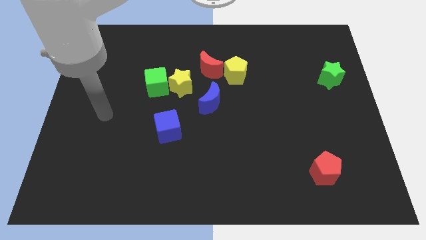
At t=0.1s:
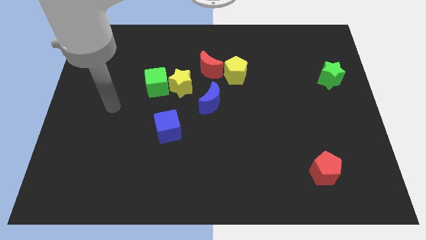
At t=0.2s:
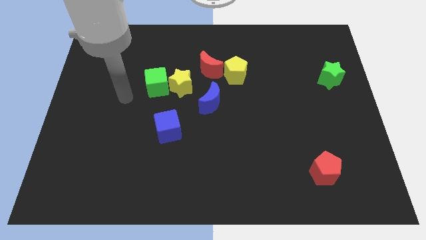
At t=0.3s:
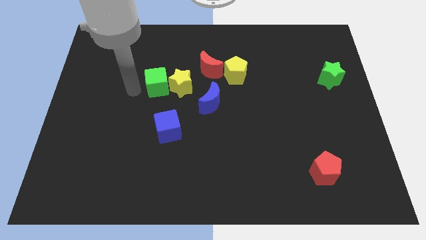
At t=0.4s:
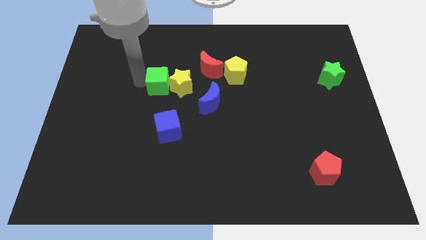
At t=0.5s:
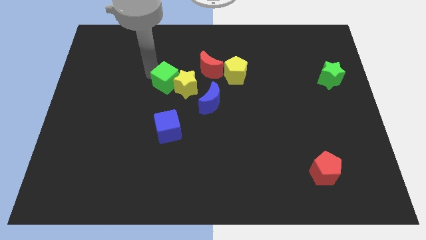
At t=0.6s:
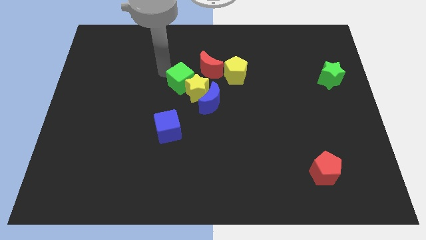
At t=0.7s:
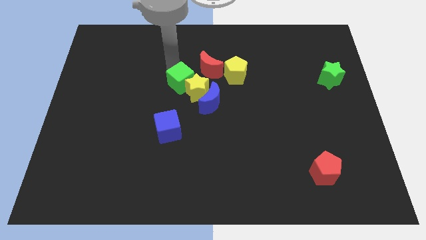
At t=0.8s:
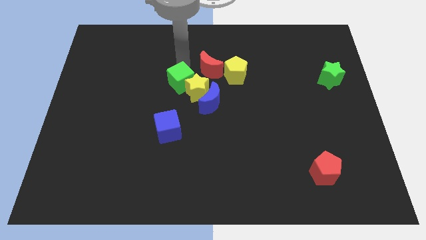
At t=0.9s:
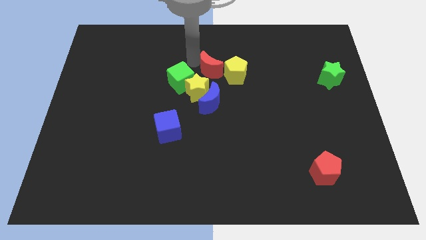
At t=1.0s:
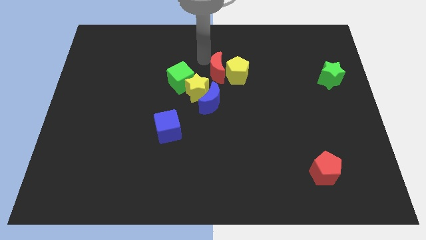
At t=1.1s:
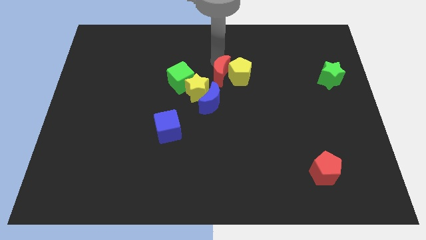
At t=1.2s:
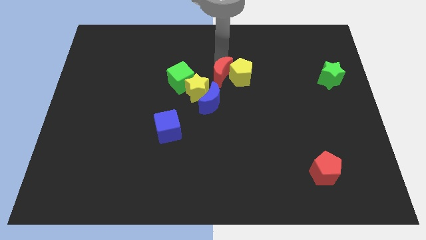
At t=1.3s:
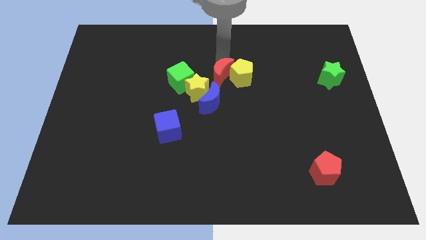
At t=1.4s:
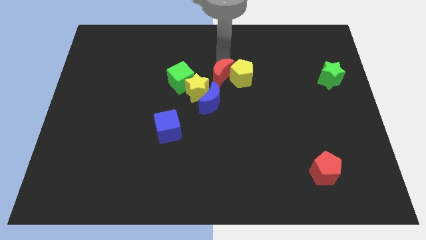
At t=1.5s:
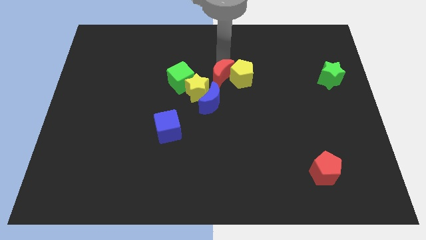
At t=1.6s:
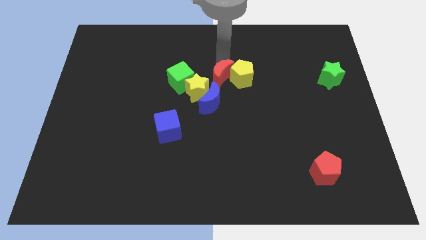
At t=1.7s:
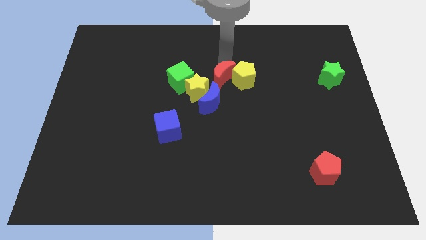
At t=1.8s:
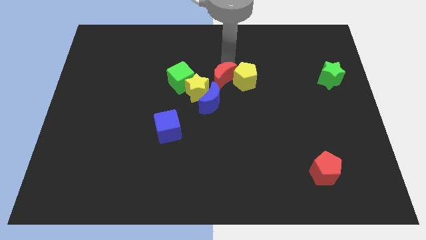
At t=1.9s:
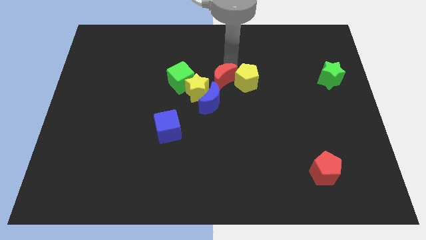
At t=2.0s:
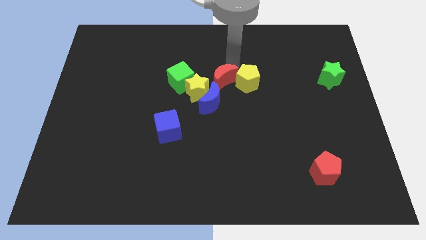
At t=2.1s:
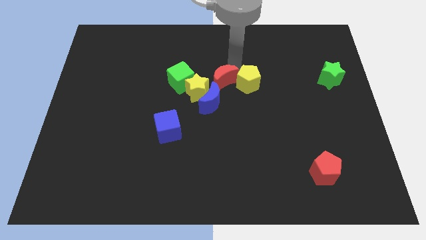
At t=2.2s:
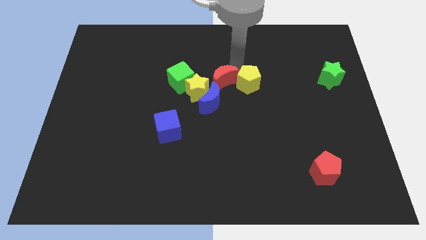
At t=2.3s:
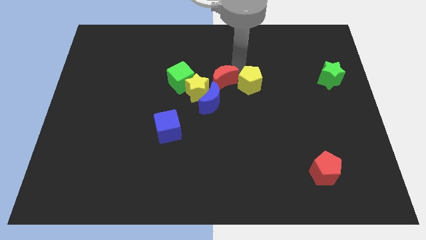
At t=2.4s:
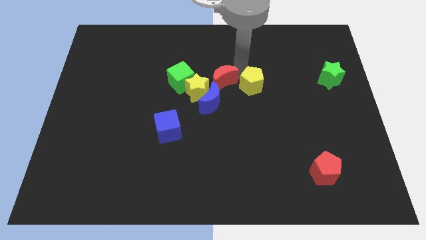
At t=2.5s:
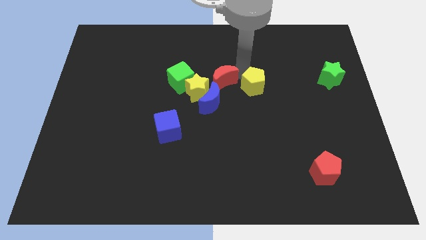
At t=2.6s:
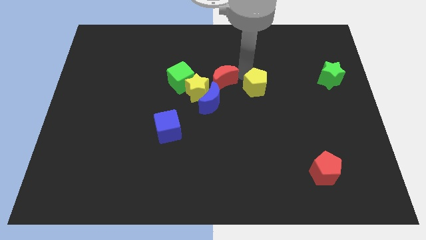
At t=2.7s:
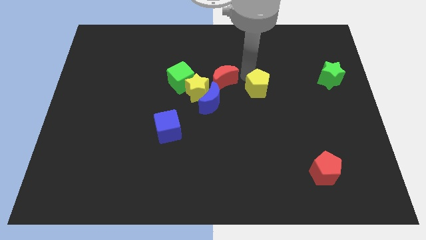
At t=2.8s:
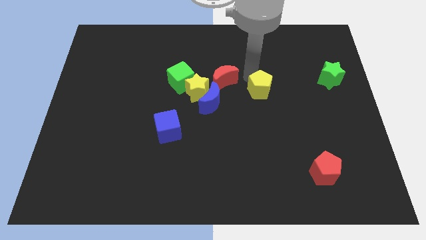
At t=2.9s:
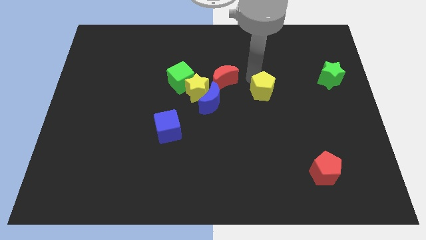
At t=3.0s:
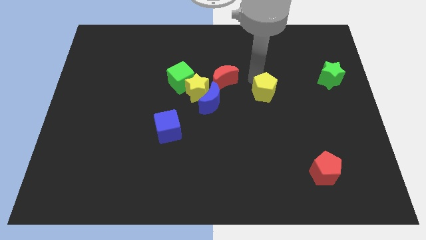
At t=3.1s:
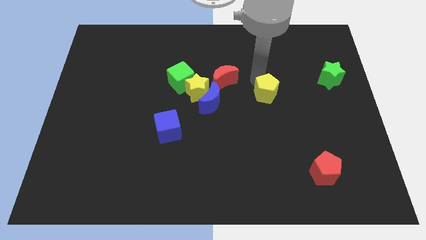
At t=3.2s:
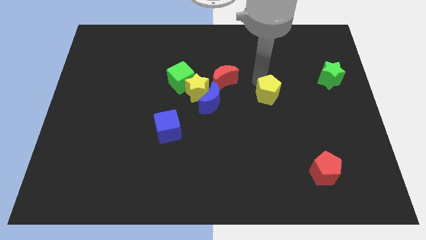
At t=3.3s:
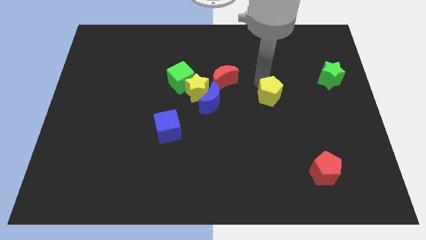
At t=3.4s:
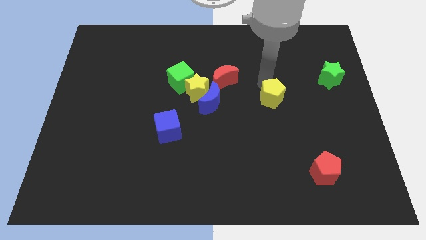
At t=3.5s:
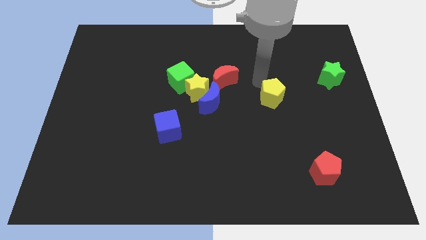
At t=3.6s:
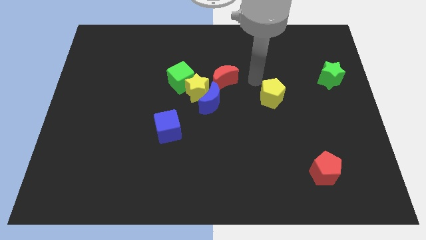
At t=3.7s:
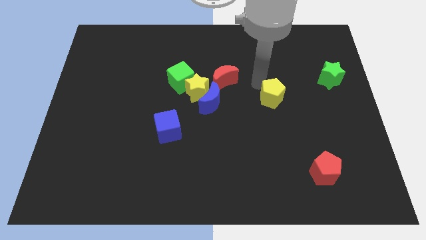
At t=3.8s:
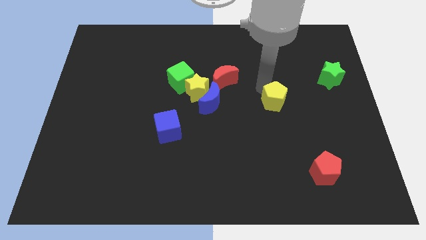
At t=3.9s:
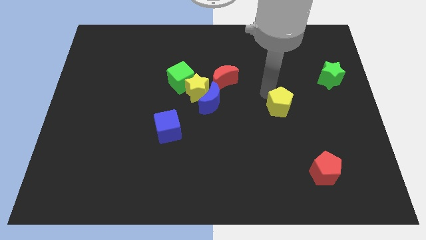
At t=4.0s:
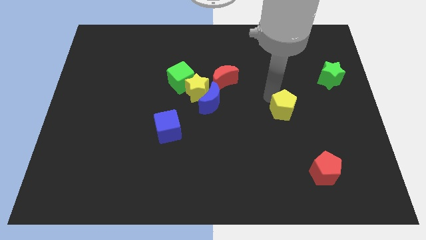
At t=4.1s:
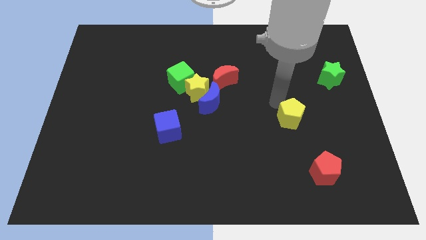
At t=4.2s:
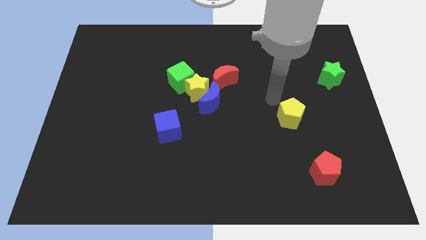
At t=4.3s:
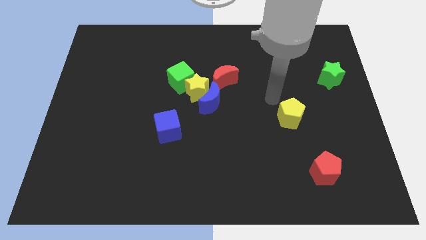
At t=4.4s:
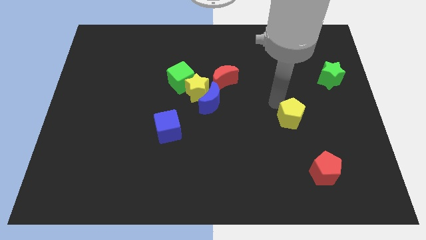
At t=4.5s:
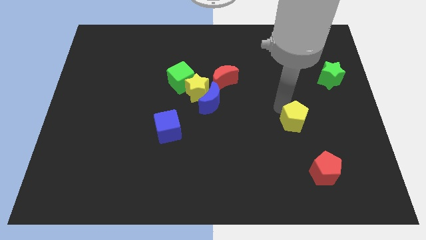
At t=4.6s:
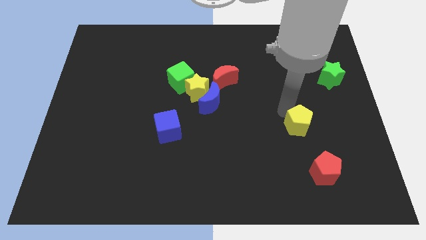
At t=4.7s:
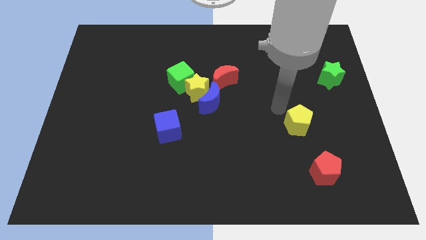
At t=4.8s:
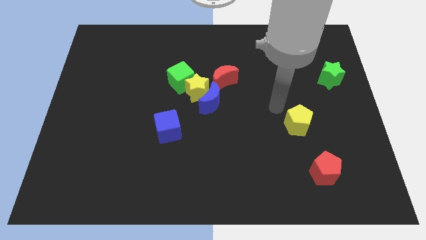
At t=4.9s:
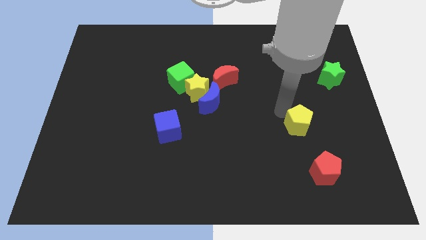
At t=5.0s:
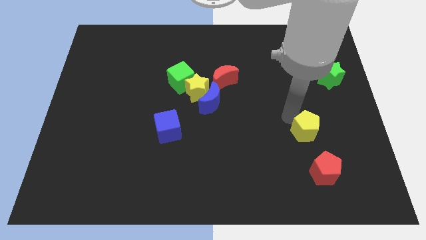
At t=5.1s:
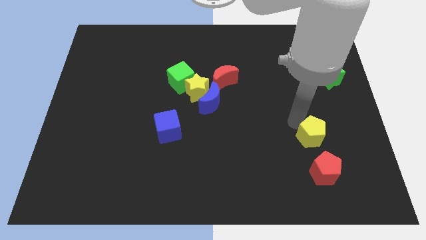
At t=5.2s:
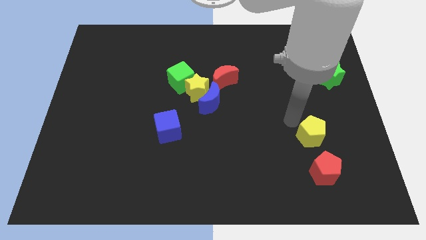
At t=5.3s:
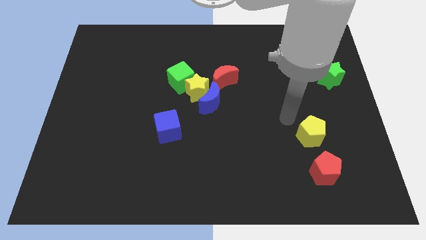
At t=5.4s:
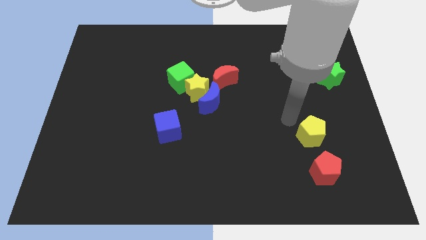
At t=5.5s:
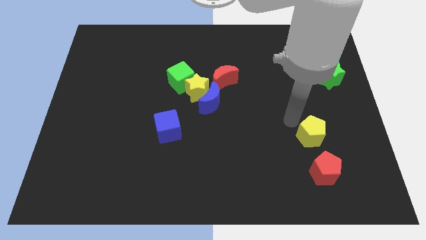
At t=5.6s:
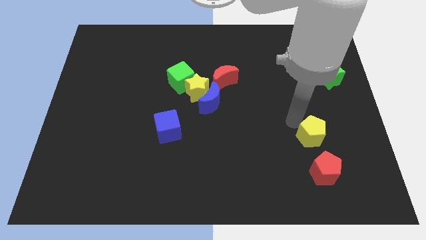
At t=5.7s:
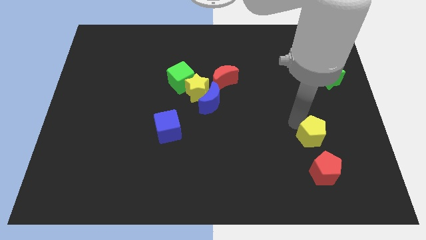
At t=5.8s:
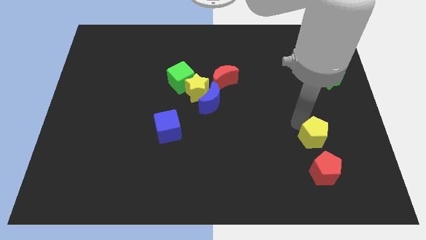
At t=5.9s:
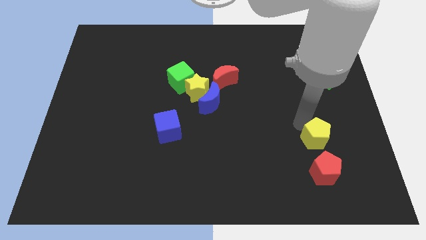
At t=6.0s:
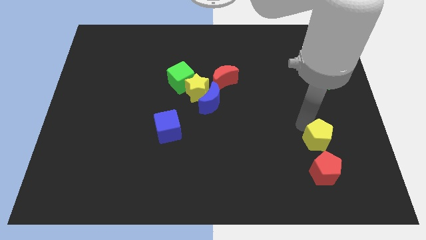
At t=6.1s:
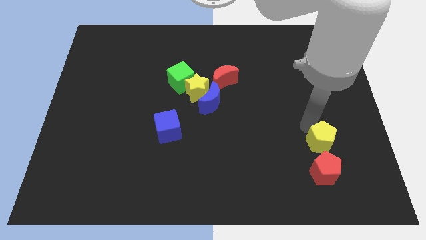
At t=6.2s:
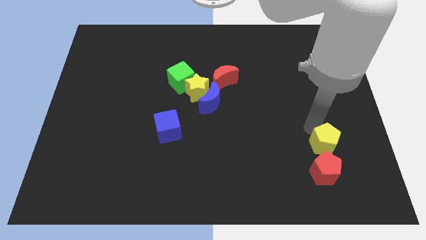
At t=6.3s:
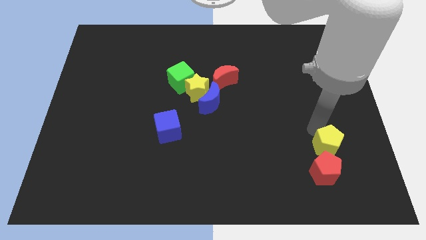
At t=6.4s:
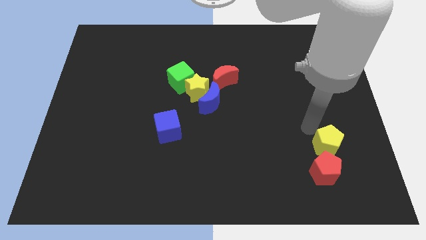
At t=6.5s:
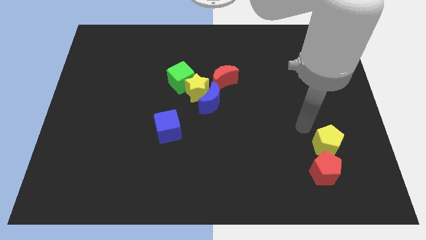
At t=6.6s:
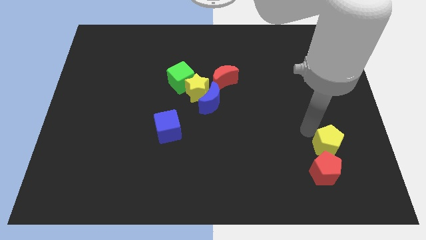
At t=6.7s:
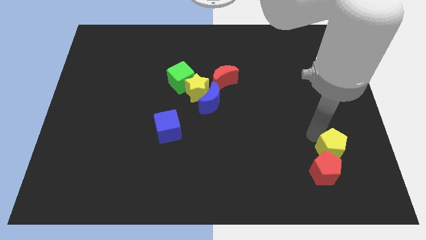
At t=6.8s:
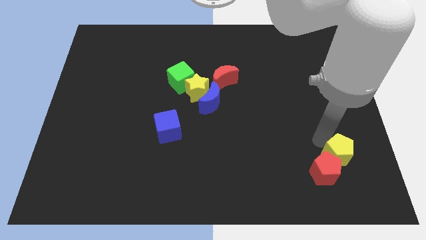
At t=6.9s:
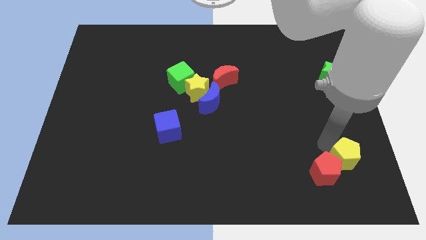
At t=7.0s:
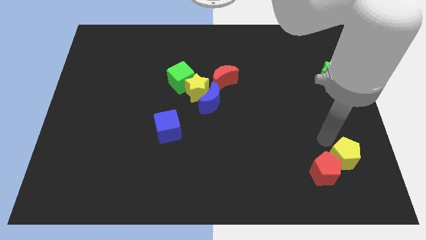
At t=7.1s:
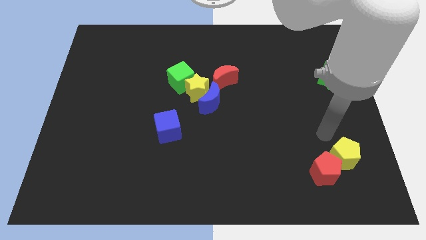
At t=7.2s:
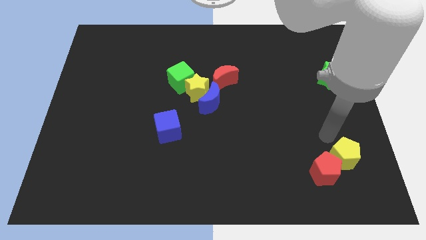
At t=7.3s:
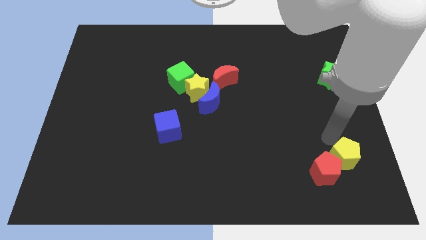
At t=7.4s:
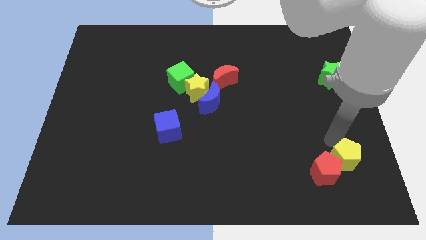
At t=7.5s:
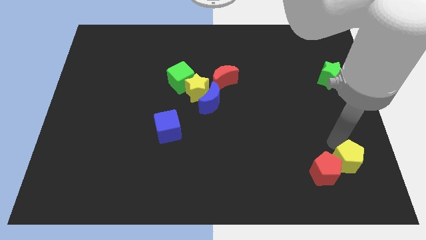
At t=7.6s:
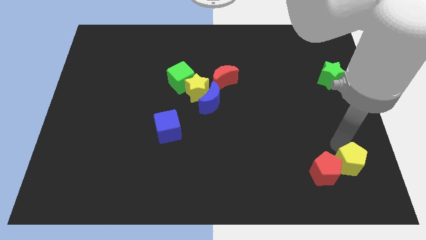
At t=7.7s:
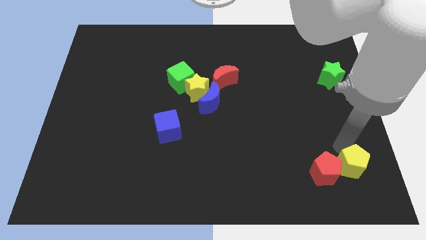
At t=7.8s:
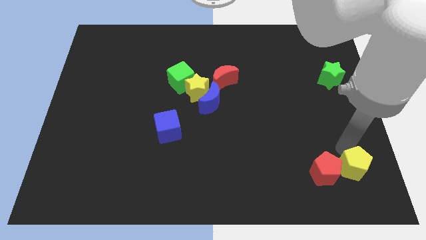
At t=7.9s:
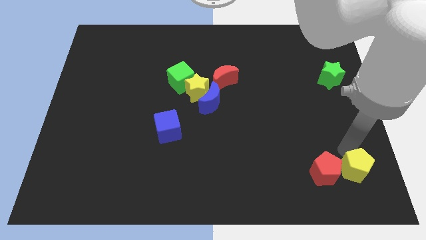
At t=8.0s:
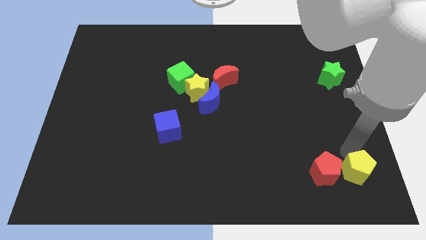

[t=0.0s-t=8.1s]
move the yellow pentagon to the bottom right
